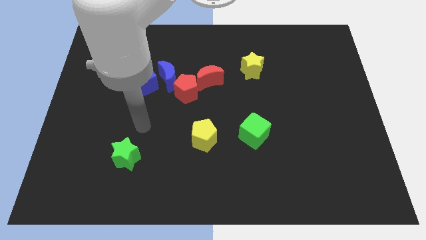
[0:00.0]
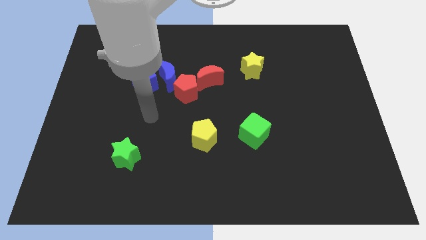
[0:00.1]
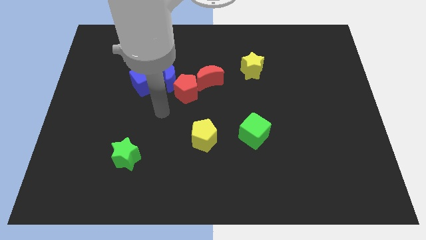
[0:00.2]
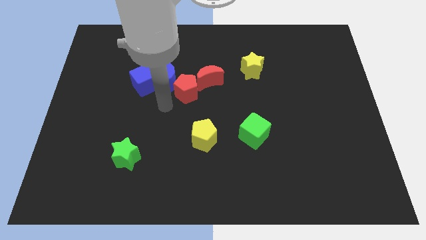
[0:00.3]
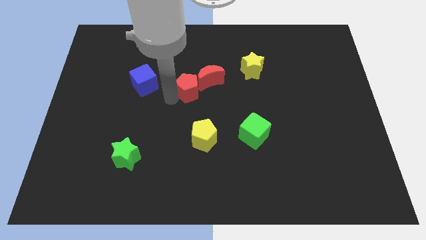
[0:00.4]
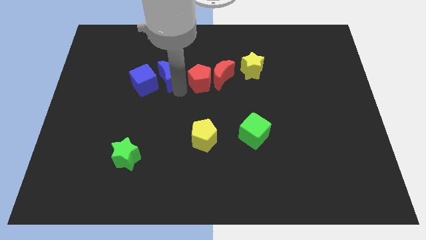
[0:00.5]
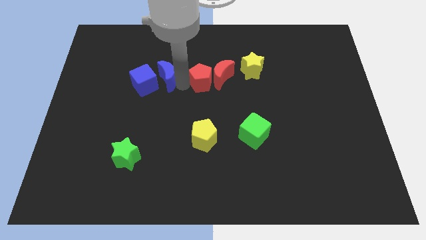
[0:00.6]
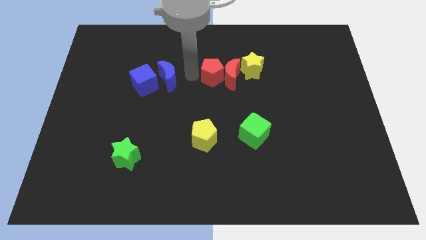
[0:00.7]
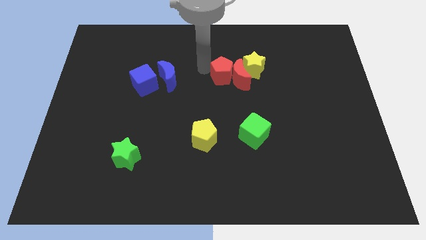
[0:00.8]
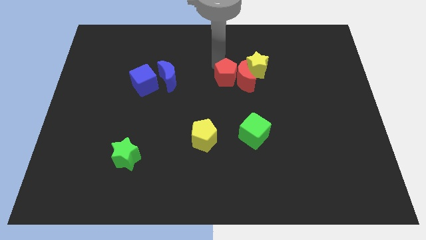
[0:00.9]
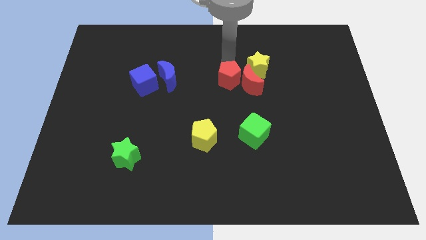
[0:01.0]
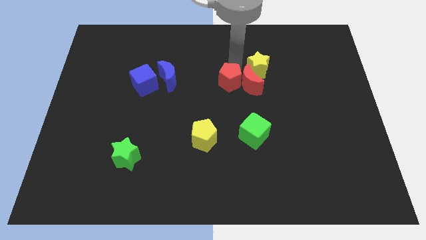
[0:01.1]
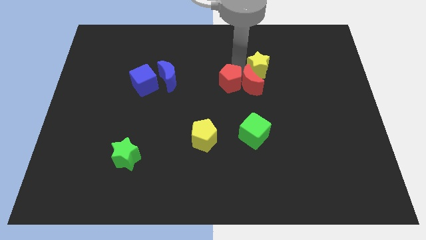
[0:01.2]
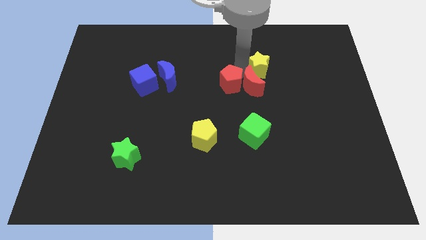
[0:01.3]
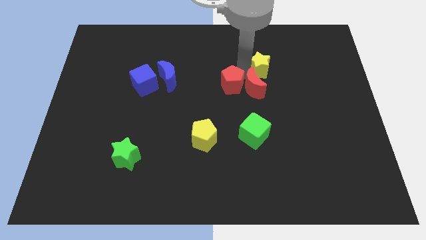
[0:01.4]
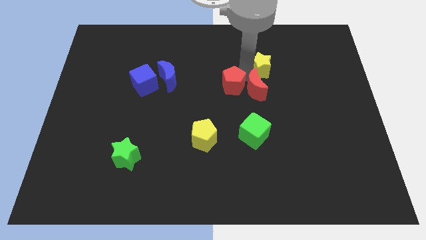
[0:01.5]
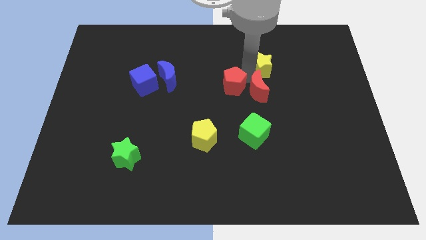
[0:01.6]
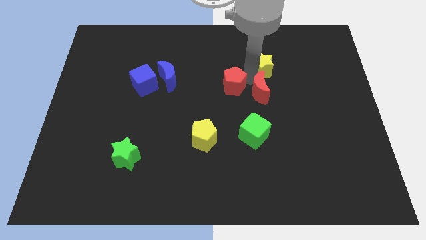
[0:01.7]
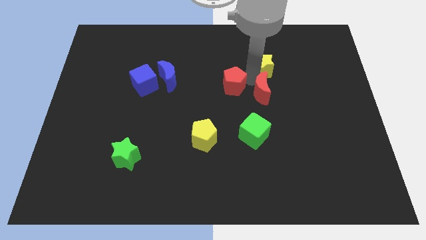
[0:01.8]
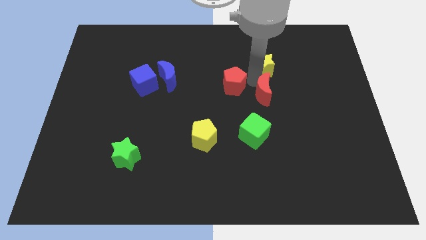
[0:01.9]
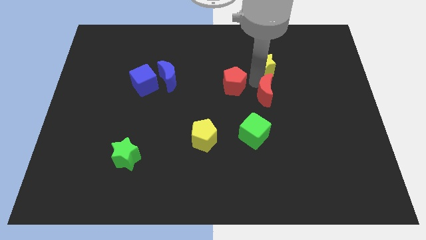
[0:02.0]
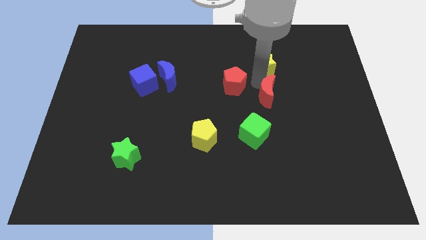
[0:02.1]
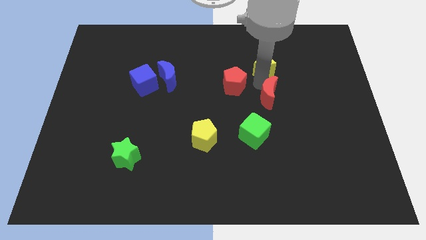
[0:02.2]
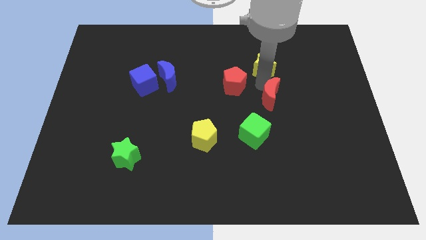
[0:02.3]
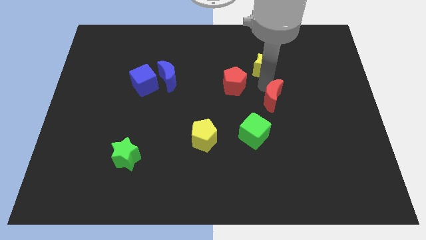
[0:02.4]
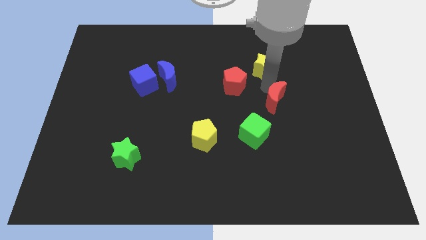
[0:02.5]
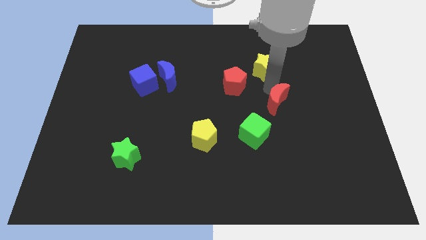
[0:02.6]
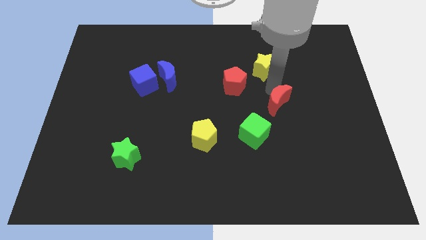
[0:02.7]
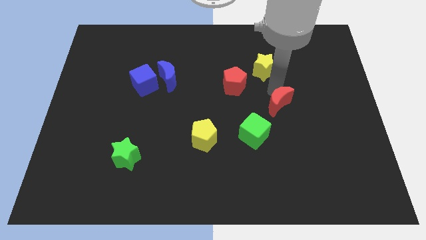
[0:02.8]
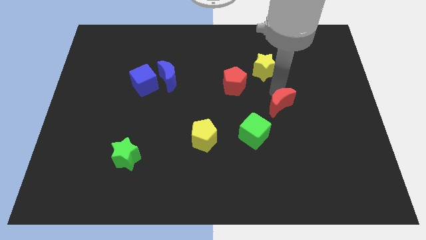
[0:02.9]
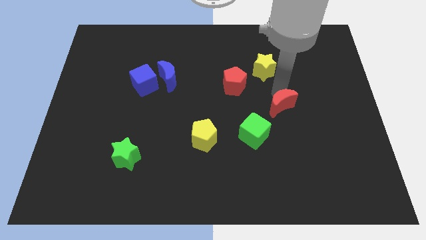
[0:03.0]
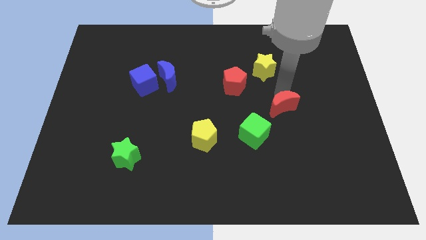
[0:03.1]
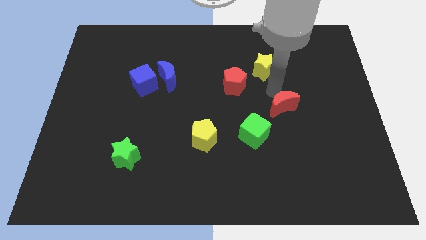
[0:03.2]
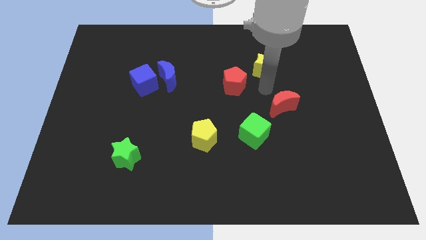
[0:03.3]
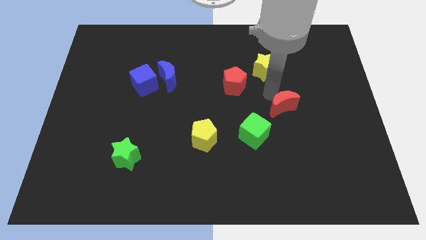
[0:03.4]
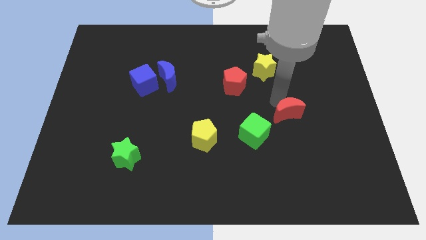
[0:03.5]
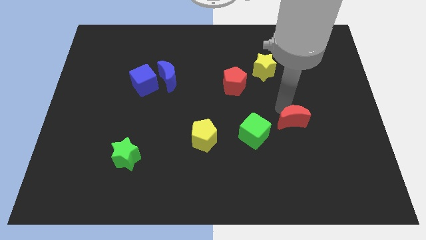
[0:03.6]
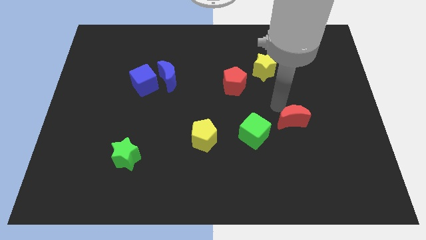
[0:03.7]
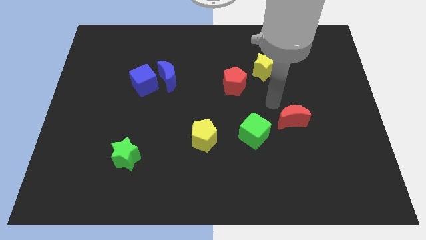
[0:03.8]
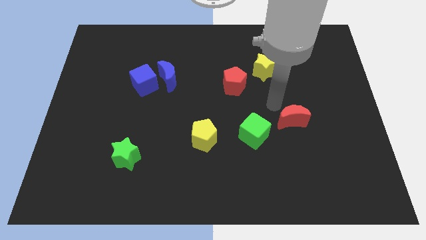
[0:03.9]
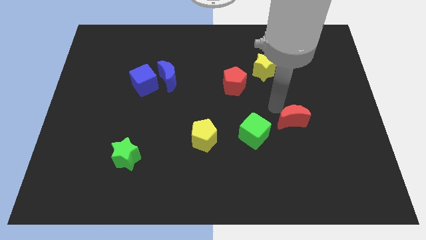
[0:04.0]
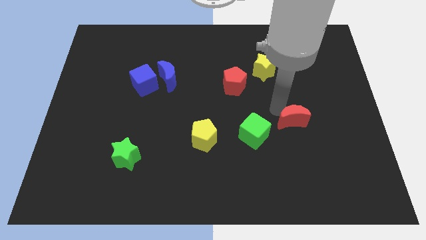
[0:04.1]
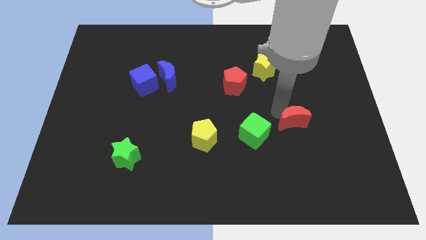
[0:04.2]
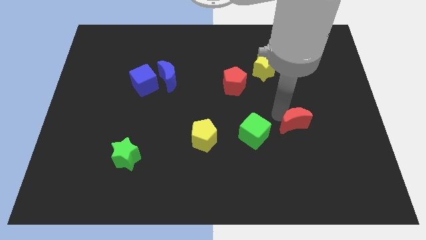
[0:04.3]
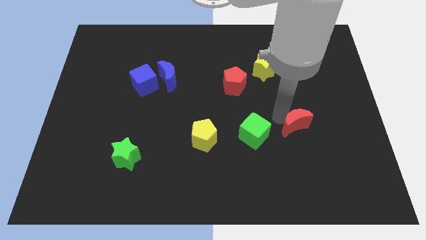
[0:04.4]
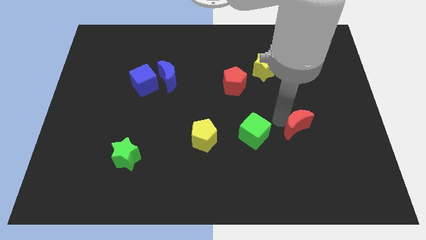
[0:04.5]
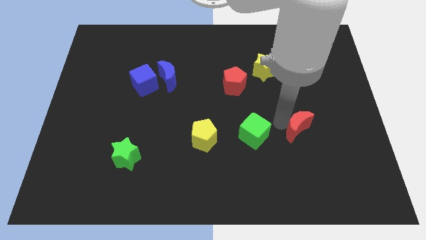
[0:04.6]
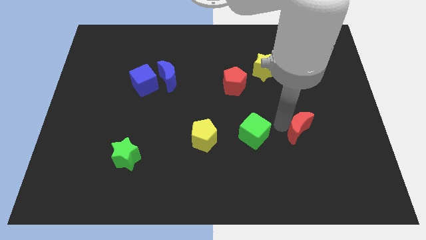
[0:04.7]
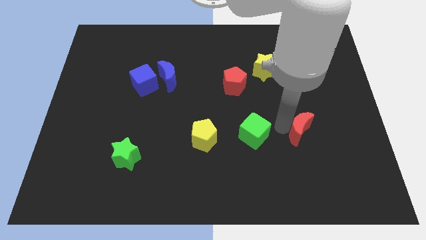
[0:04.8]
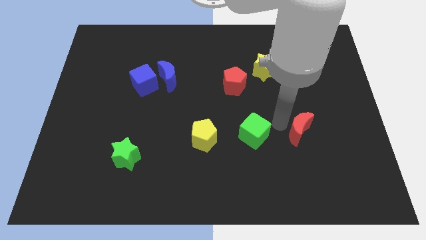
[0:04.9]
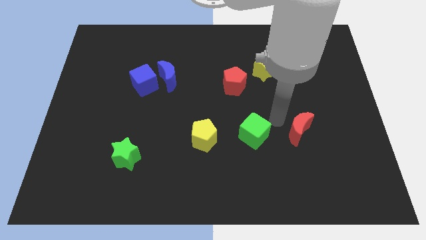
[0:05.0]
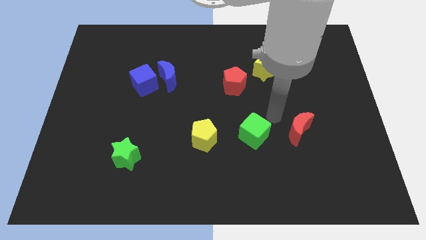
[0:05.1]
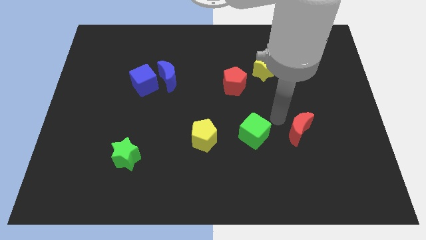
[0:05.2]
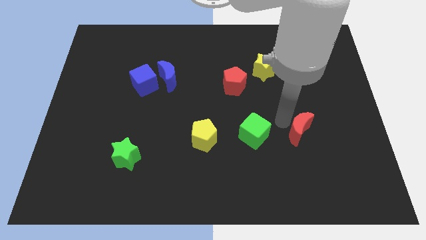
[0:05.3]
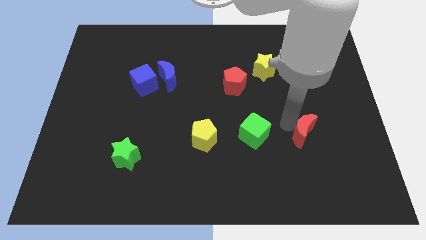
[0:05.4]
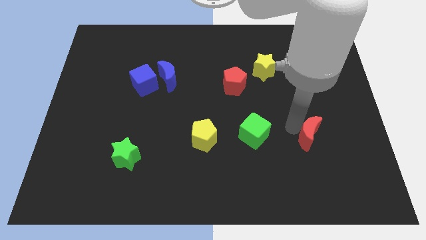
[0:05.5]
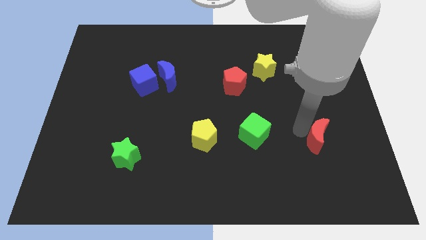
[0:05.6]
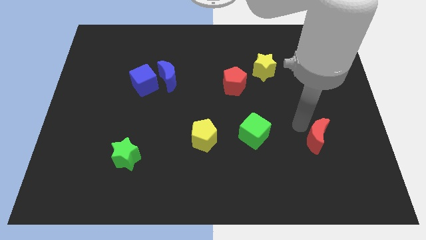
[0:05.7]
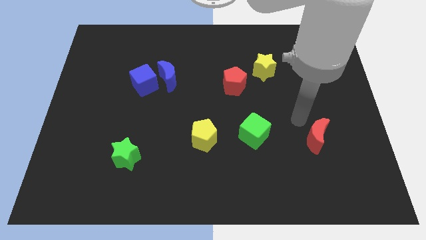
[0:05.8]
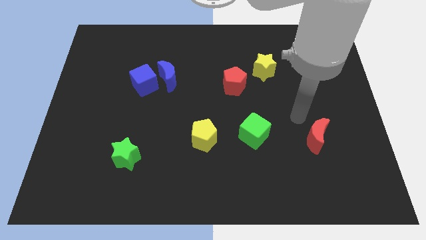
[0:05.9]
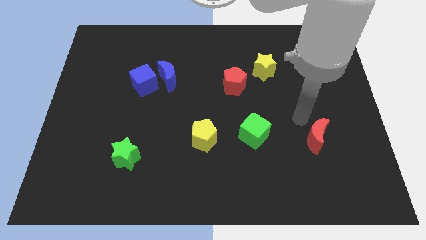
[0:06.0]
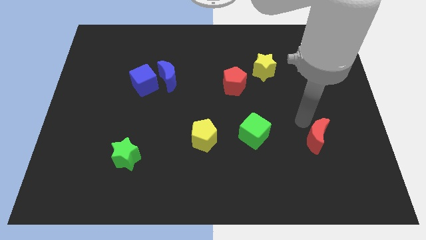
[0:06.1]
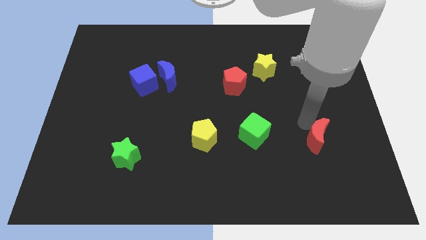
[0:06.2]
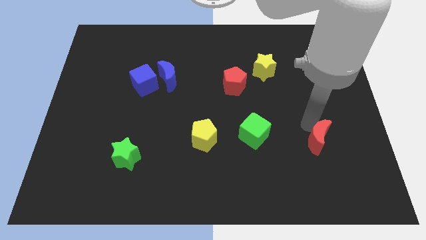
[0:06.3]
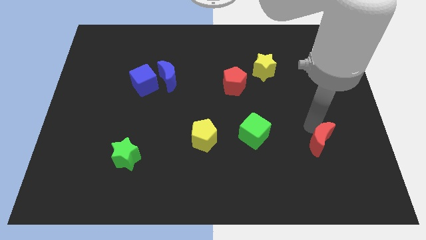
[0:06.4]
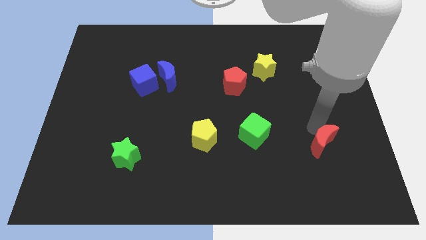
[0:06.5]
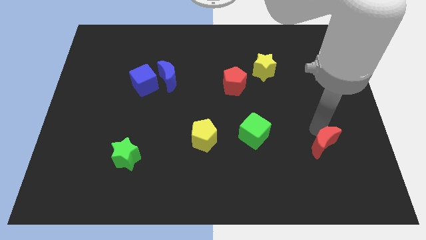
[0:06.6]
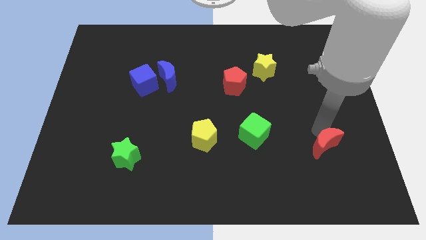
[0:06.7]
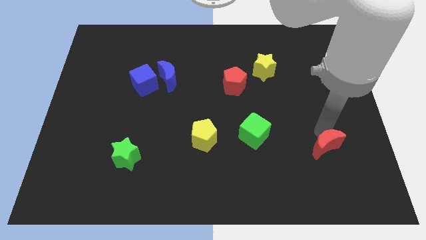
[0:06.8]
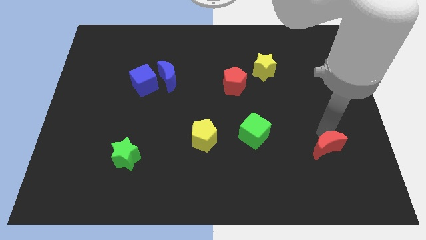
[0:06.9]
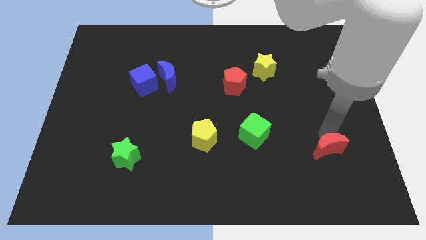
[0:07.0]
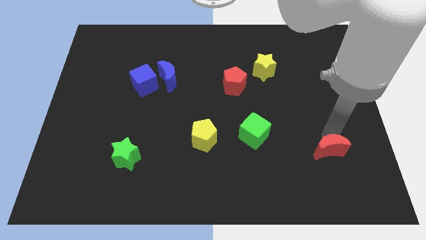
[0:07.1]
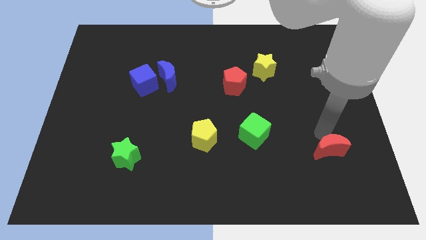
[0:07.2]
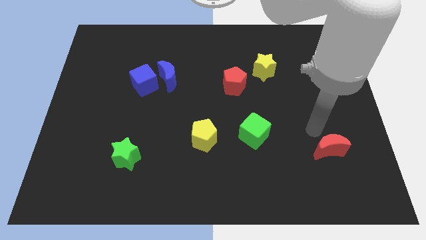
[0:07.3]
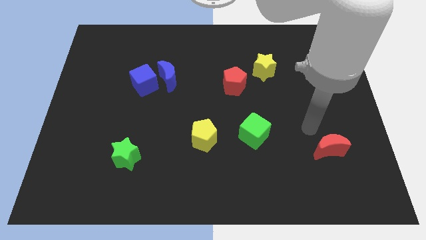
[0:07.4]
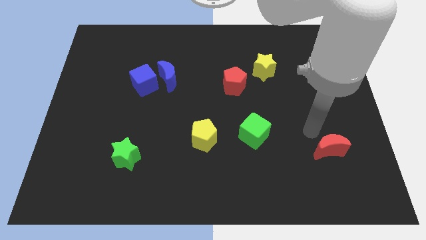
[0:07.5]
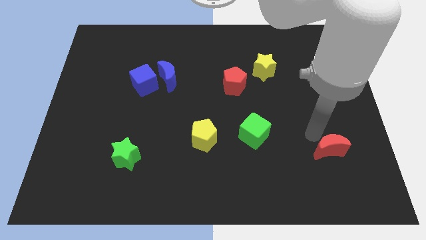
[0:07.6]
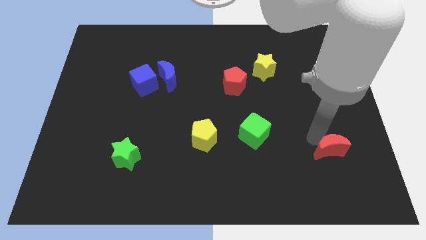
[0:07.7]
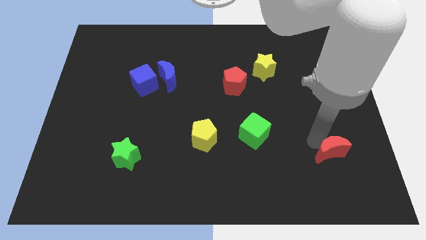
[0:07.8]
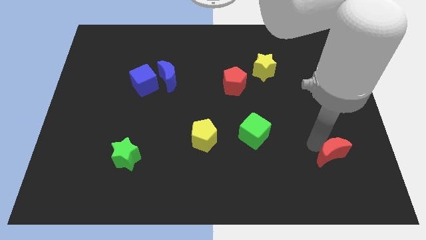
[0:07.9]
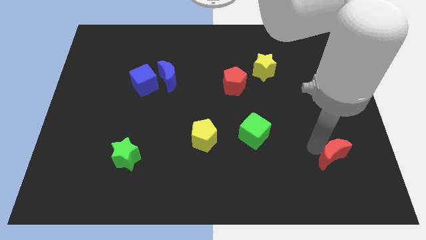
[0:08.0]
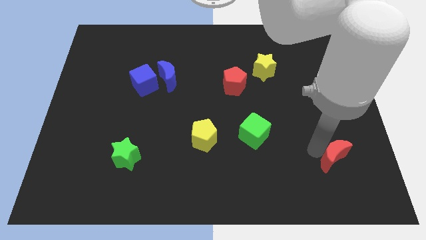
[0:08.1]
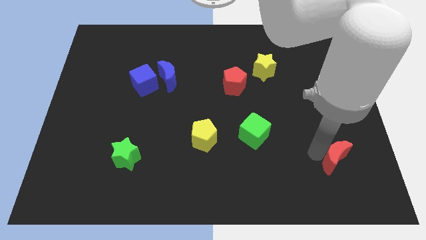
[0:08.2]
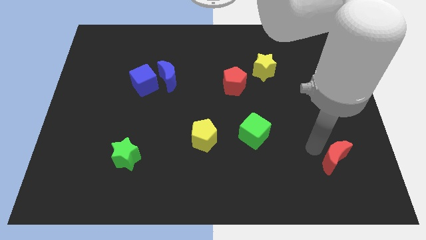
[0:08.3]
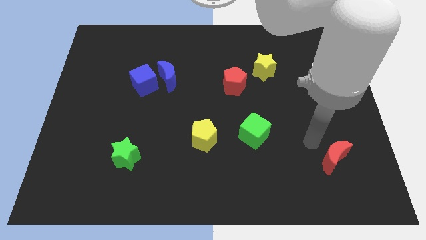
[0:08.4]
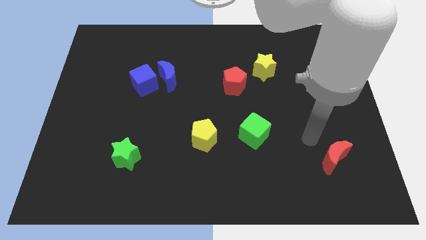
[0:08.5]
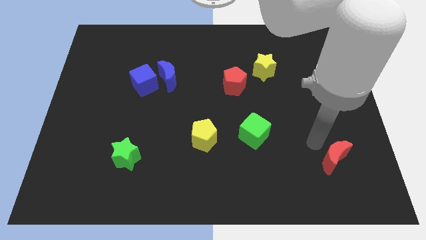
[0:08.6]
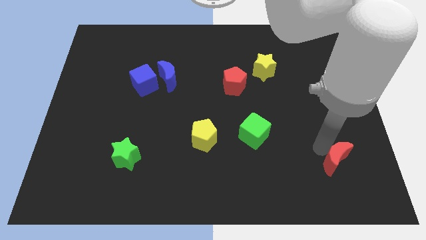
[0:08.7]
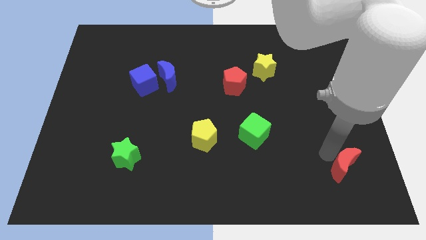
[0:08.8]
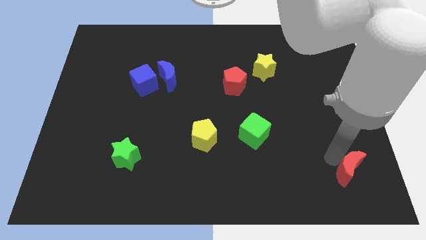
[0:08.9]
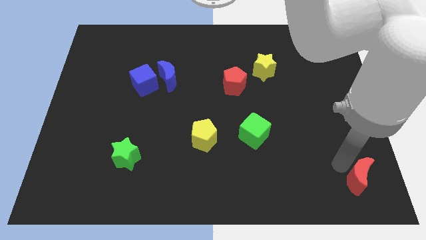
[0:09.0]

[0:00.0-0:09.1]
slide the red moon to the bottom right
